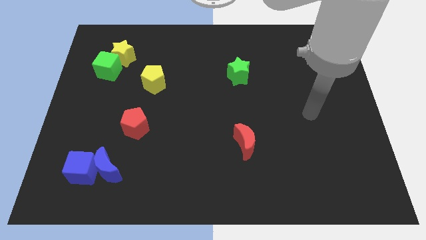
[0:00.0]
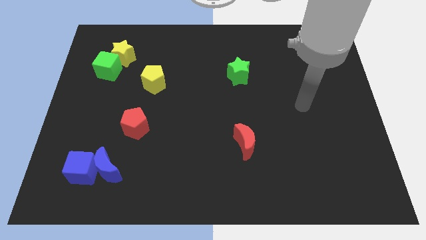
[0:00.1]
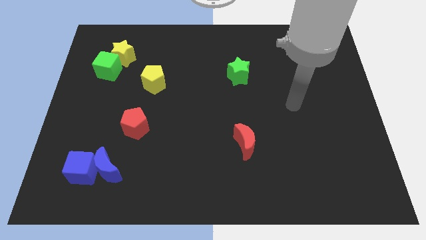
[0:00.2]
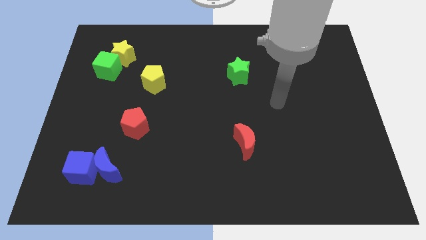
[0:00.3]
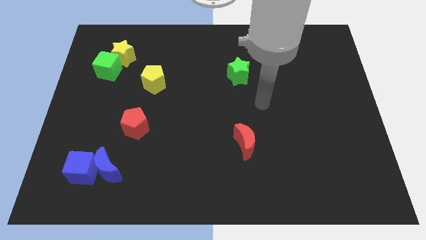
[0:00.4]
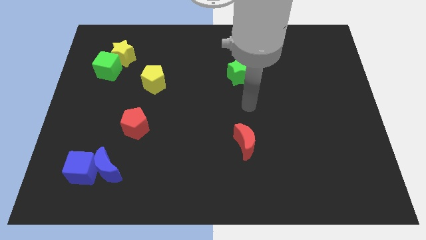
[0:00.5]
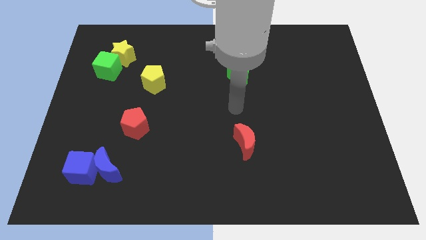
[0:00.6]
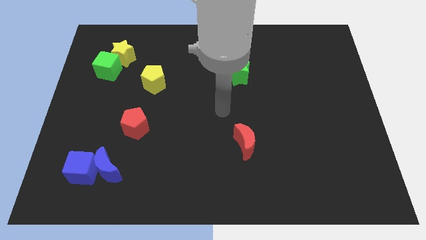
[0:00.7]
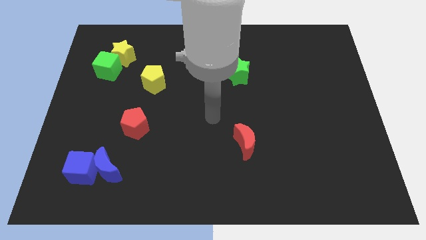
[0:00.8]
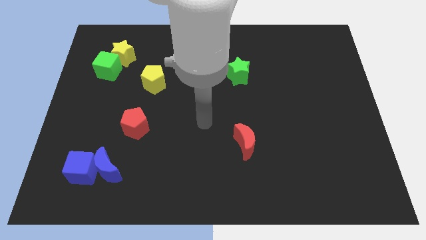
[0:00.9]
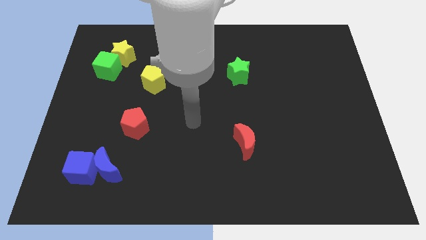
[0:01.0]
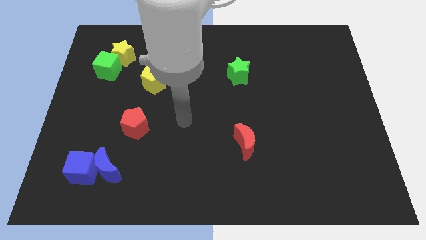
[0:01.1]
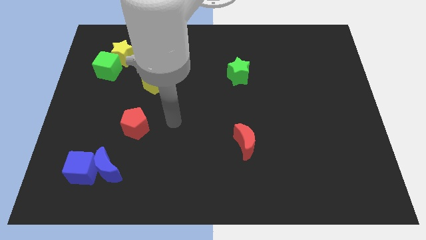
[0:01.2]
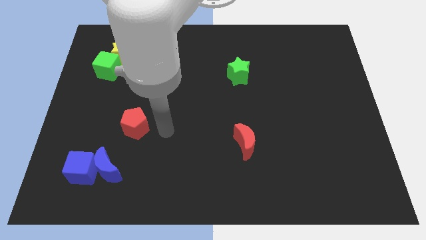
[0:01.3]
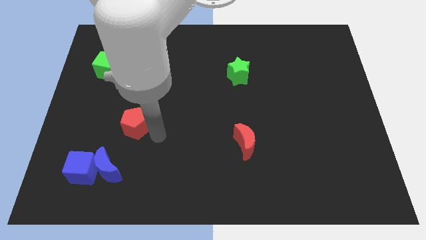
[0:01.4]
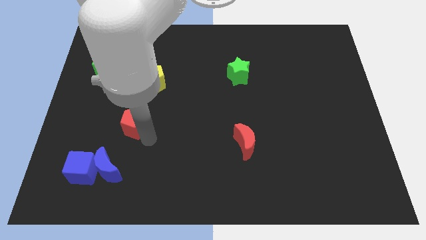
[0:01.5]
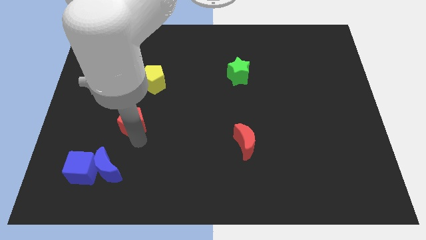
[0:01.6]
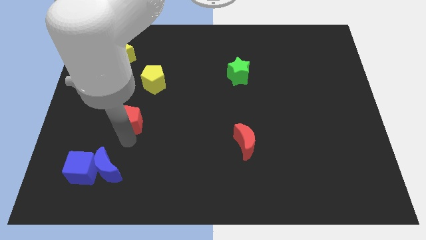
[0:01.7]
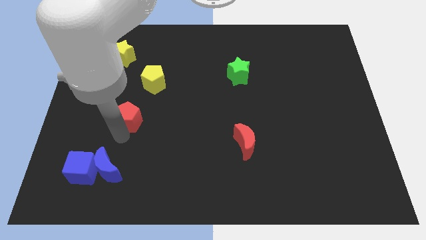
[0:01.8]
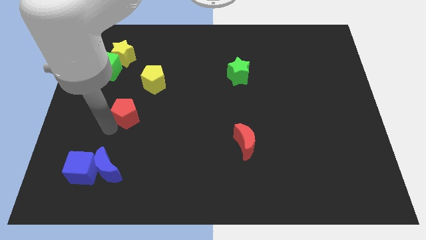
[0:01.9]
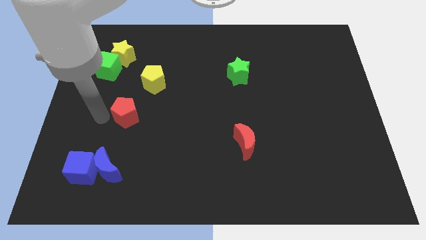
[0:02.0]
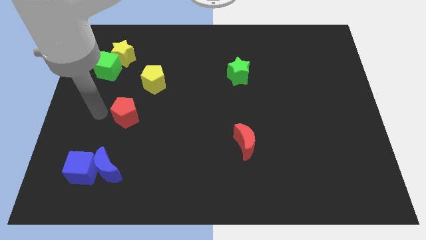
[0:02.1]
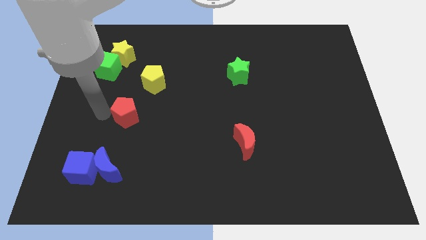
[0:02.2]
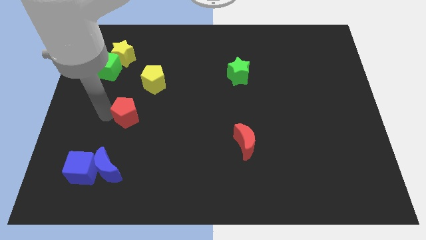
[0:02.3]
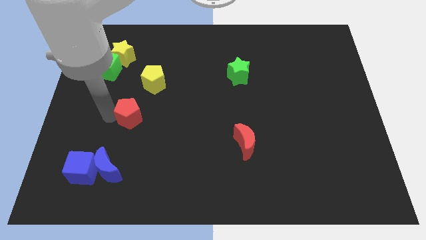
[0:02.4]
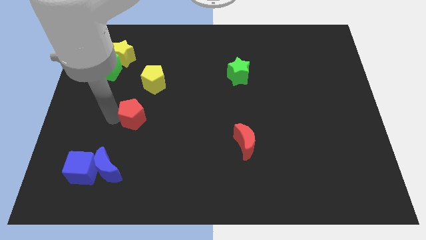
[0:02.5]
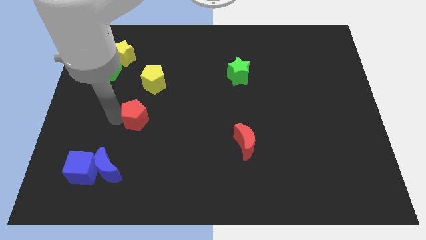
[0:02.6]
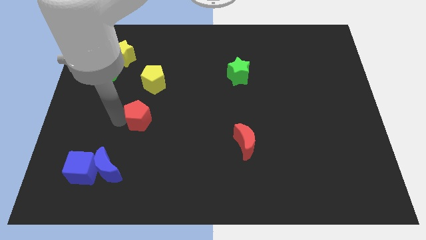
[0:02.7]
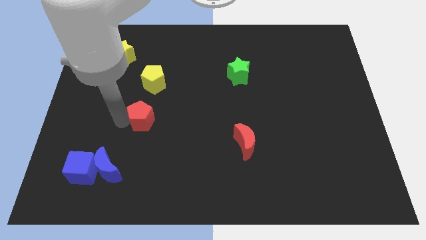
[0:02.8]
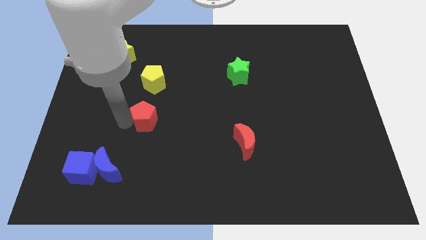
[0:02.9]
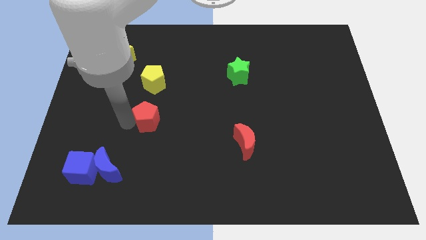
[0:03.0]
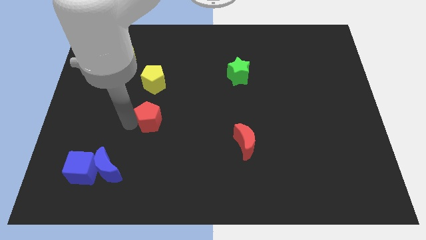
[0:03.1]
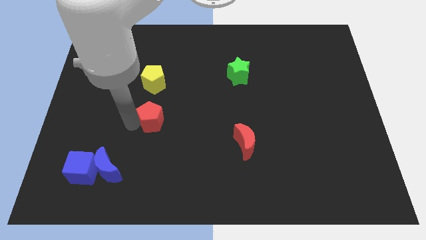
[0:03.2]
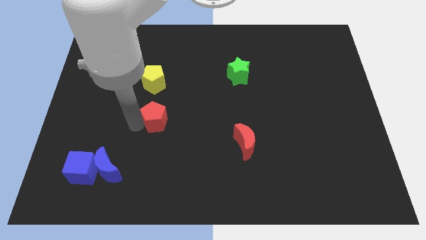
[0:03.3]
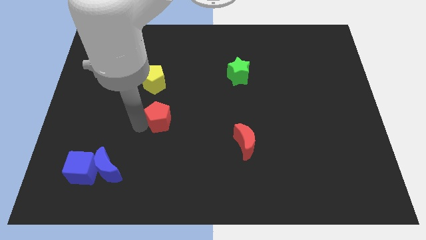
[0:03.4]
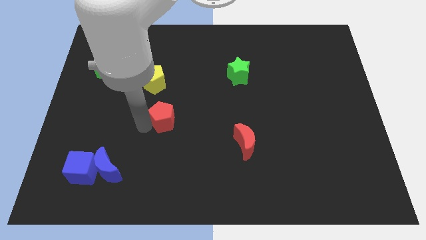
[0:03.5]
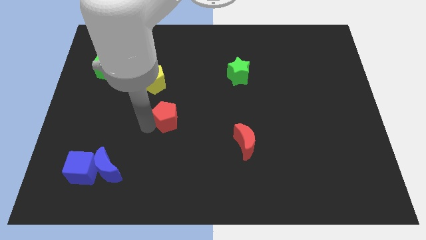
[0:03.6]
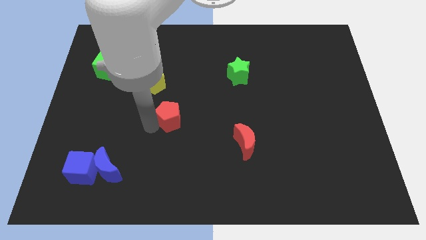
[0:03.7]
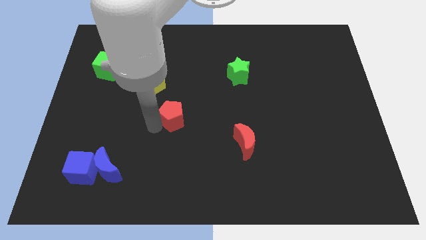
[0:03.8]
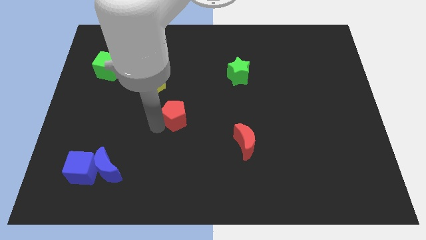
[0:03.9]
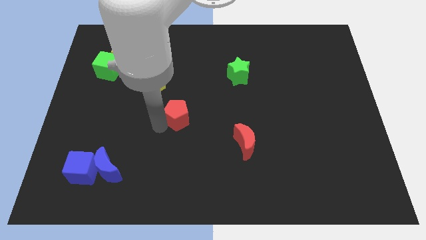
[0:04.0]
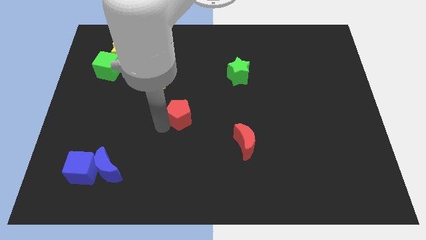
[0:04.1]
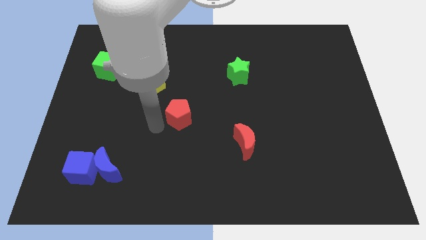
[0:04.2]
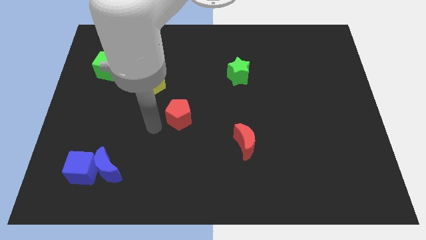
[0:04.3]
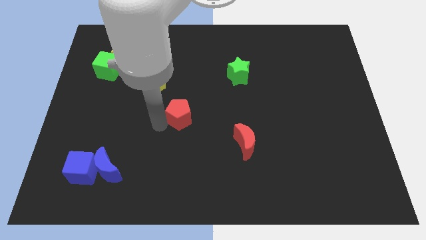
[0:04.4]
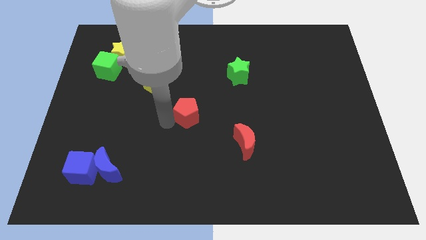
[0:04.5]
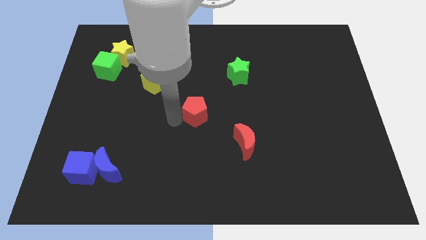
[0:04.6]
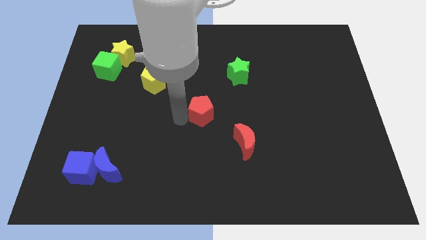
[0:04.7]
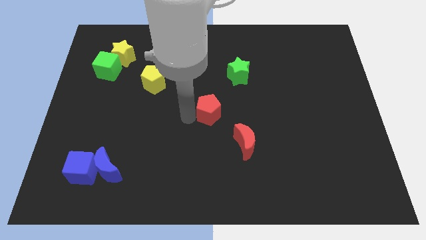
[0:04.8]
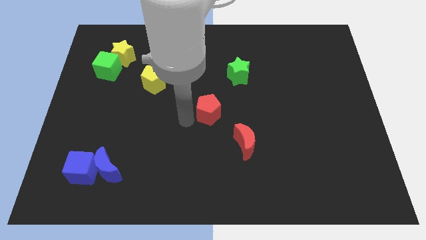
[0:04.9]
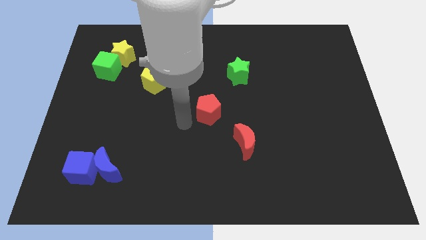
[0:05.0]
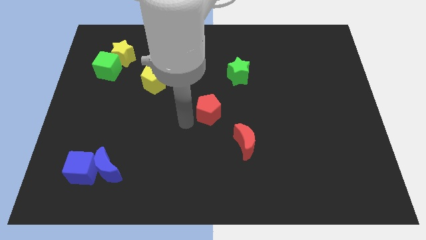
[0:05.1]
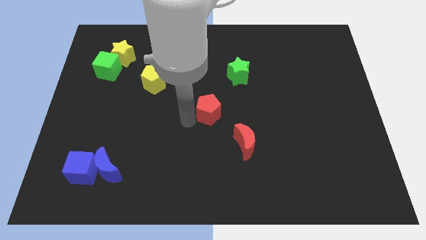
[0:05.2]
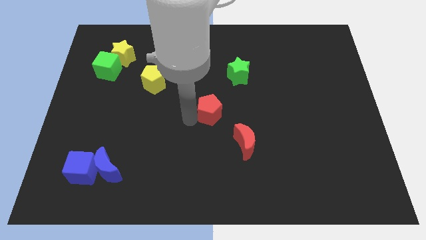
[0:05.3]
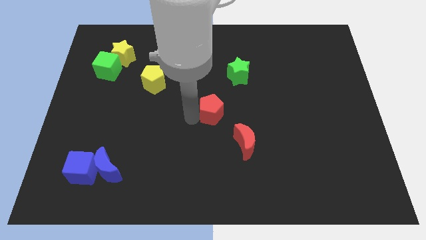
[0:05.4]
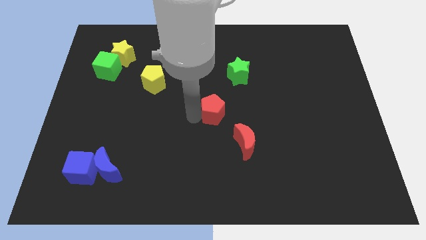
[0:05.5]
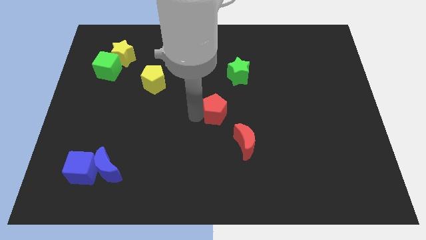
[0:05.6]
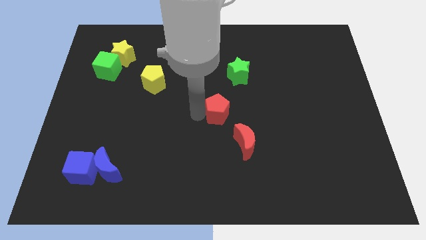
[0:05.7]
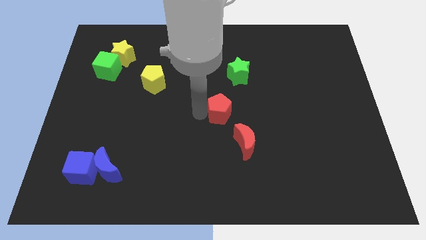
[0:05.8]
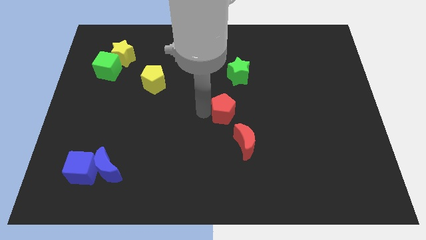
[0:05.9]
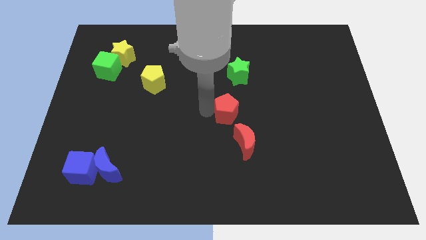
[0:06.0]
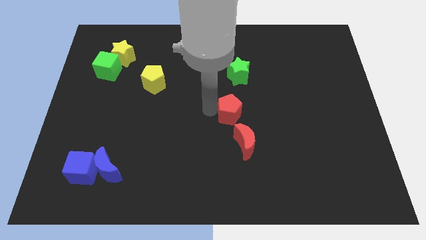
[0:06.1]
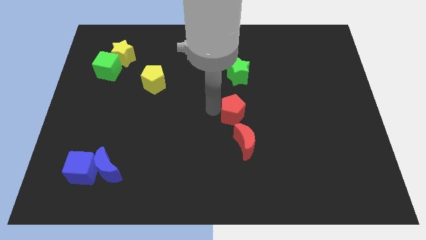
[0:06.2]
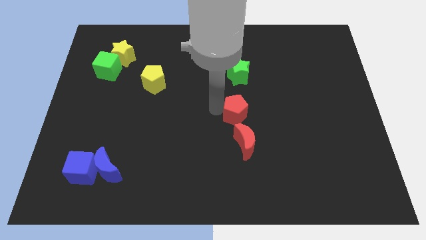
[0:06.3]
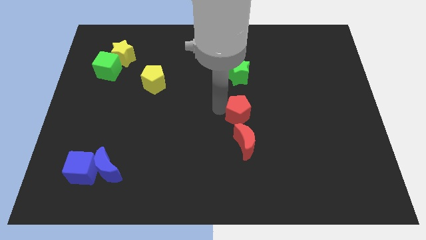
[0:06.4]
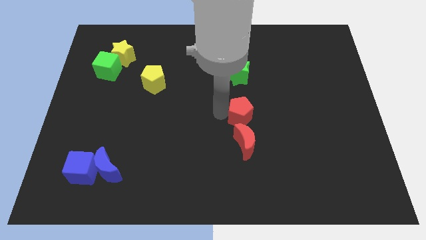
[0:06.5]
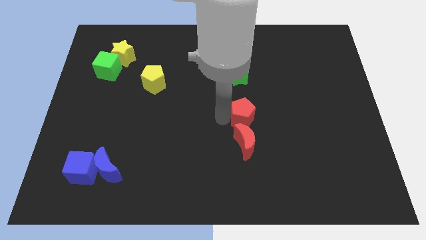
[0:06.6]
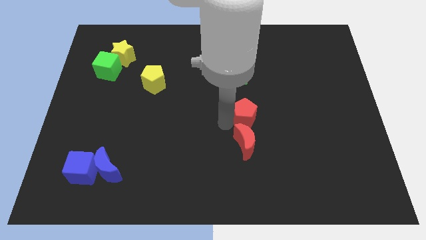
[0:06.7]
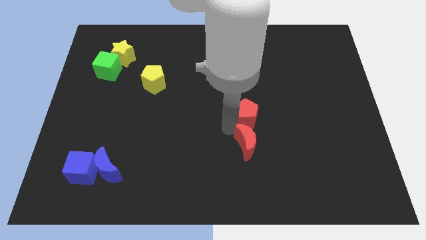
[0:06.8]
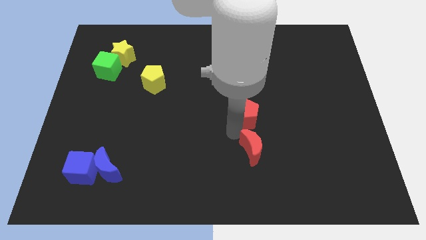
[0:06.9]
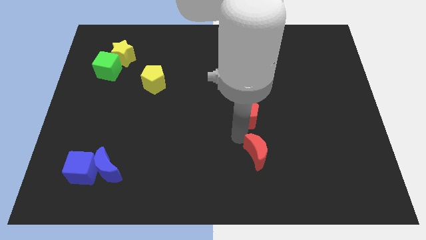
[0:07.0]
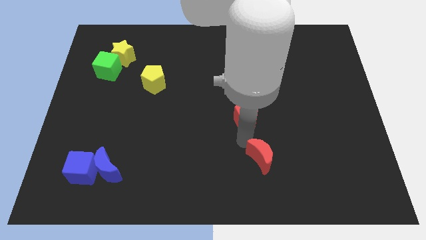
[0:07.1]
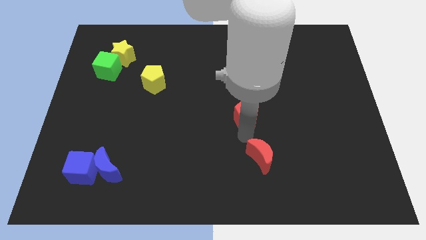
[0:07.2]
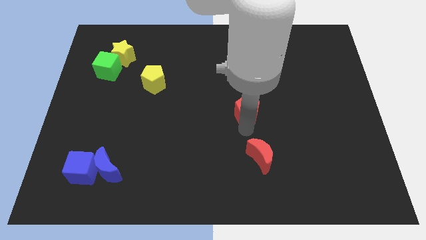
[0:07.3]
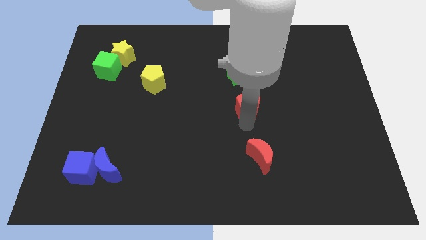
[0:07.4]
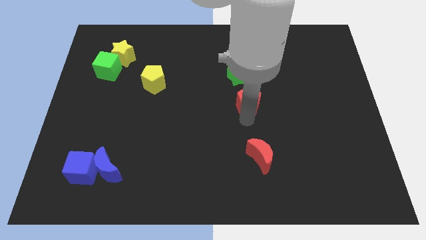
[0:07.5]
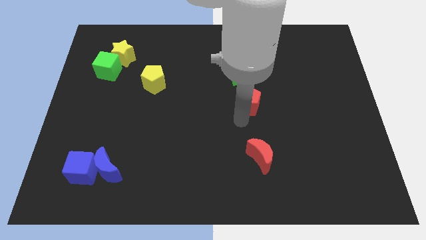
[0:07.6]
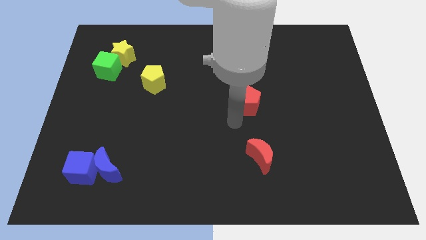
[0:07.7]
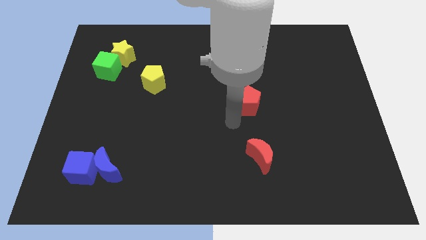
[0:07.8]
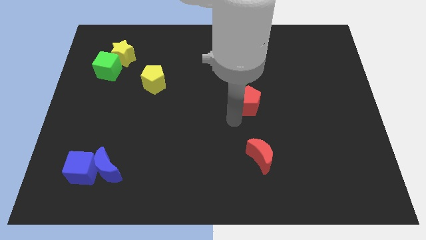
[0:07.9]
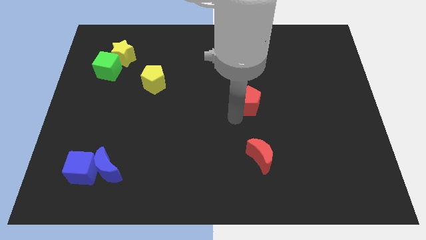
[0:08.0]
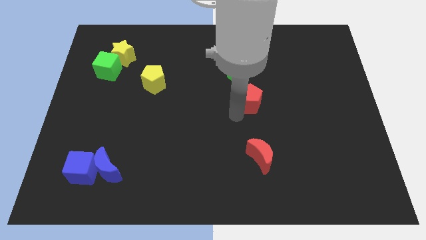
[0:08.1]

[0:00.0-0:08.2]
put the red pentagon to the bottom right of the green star
